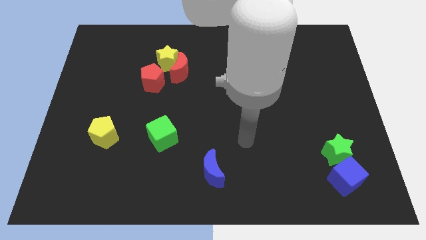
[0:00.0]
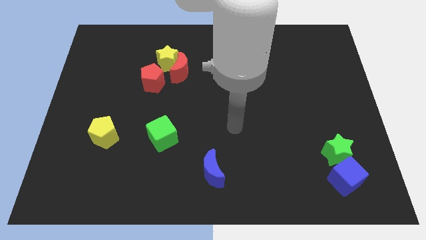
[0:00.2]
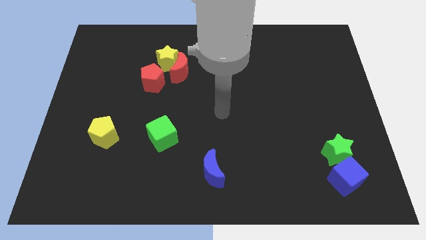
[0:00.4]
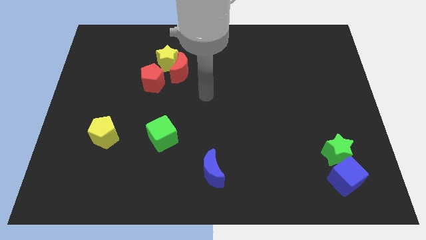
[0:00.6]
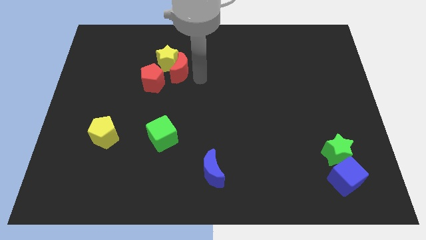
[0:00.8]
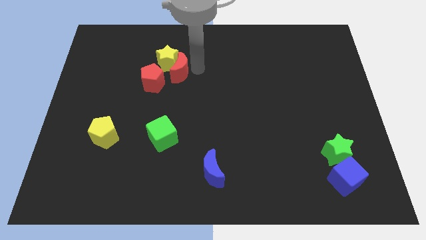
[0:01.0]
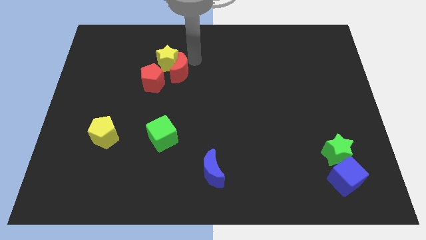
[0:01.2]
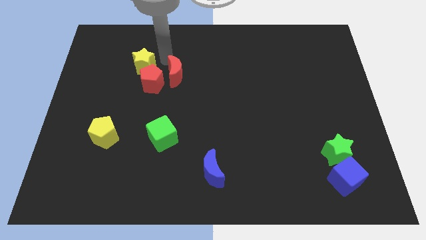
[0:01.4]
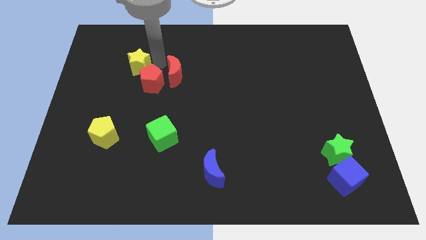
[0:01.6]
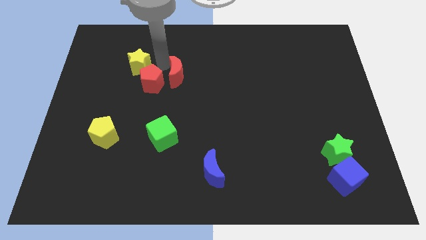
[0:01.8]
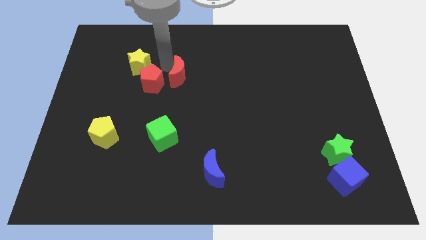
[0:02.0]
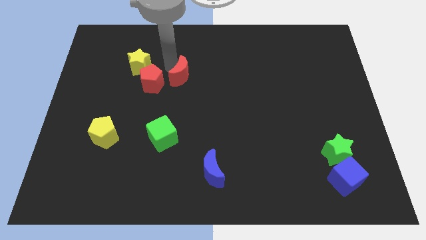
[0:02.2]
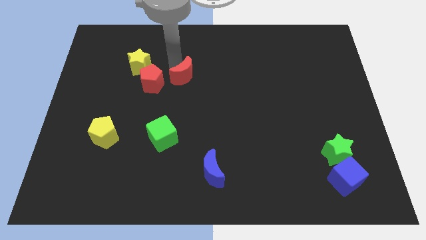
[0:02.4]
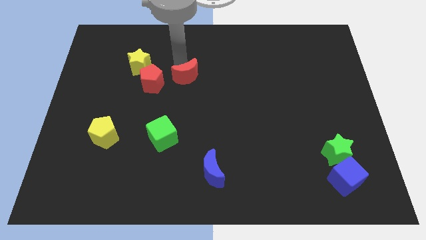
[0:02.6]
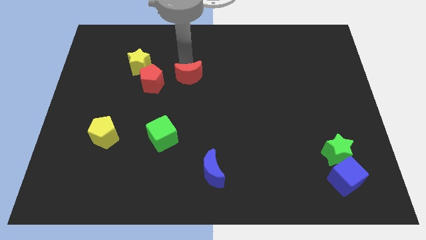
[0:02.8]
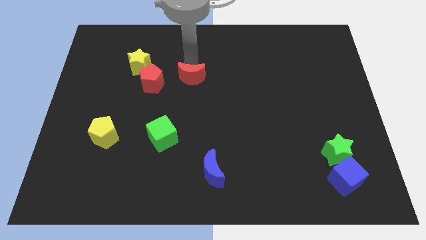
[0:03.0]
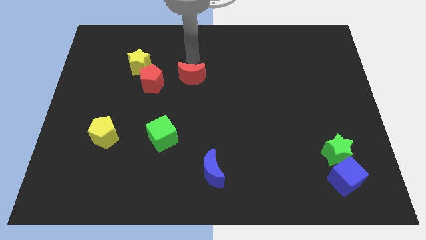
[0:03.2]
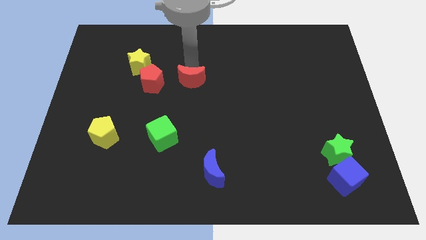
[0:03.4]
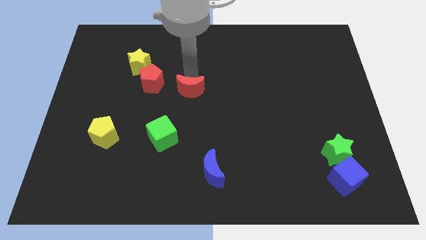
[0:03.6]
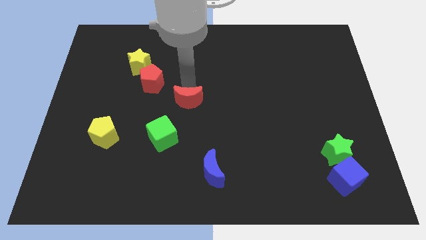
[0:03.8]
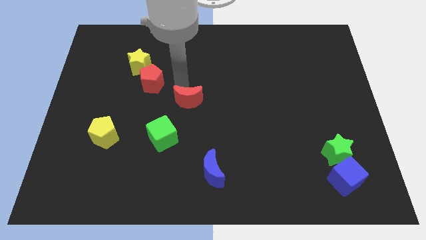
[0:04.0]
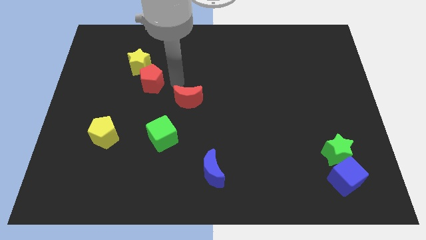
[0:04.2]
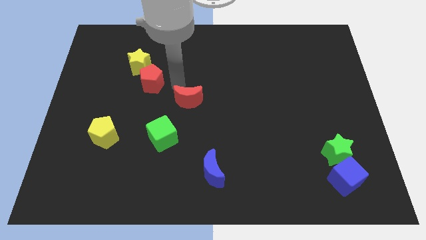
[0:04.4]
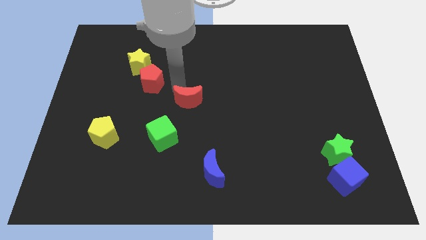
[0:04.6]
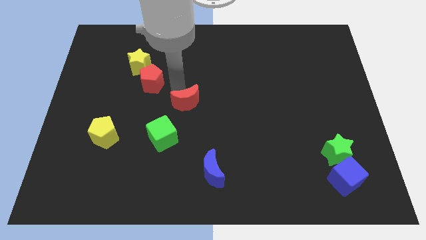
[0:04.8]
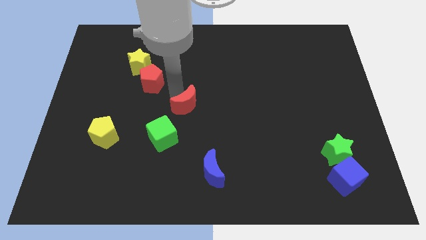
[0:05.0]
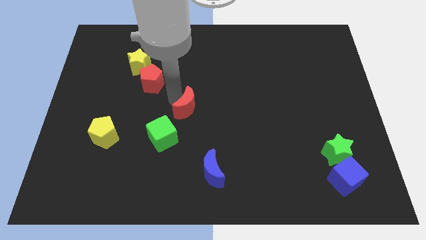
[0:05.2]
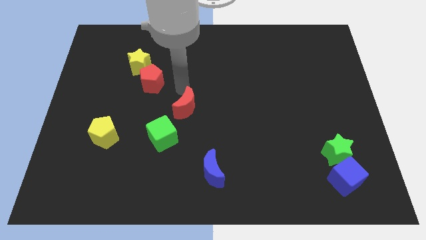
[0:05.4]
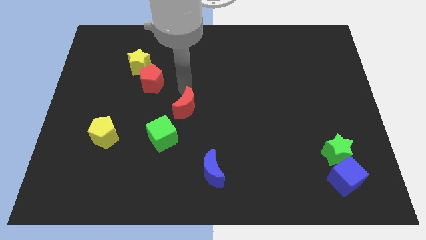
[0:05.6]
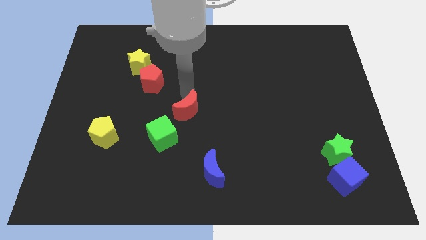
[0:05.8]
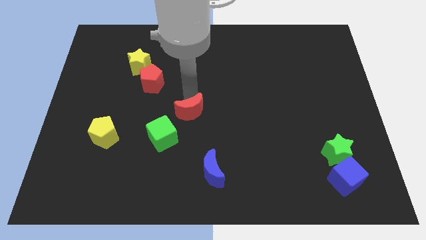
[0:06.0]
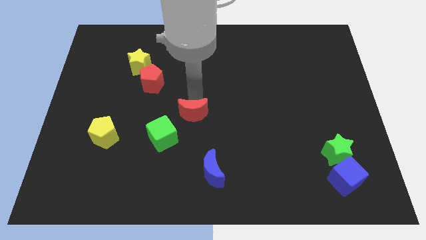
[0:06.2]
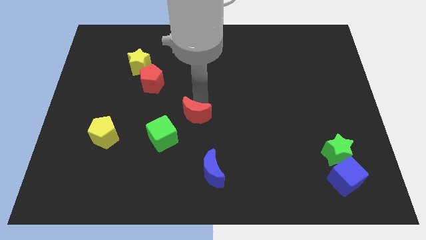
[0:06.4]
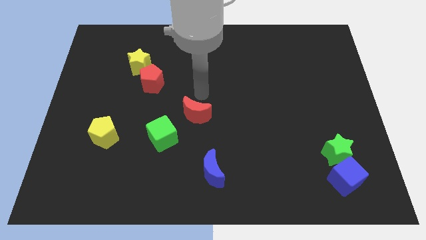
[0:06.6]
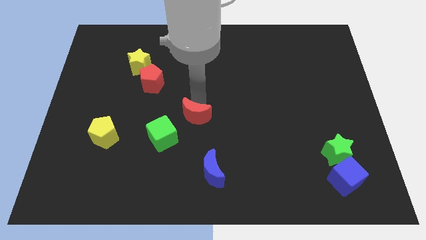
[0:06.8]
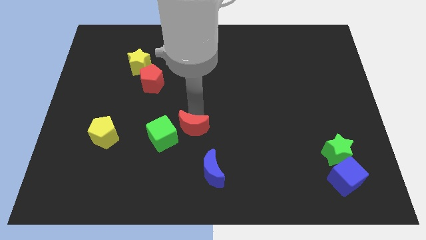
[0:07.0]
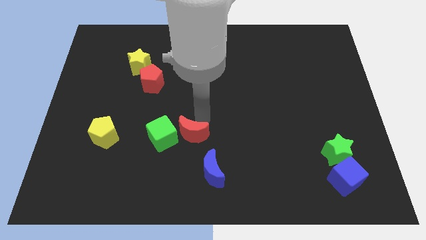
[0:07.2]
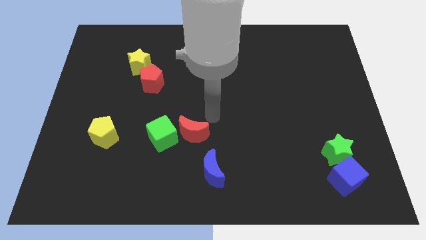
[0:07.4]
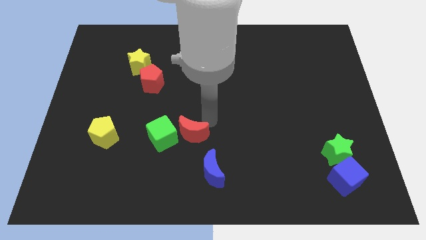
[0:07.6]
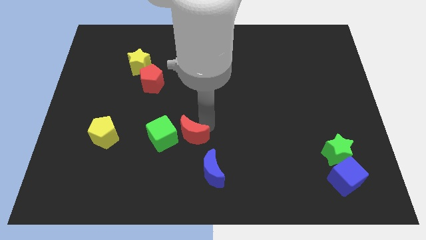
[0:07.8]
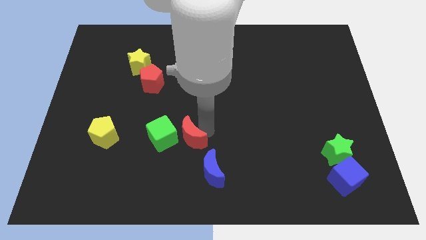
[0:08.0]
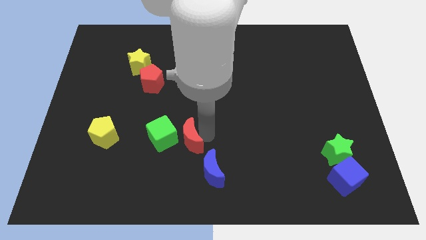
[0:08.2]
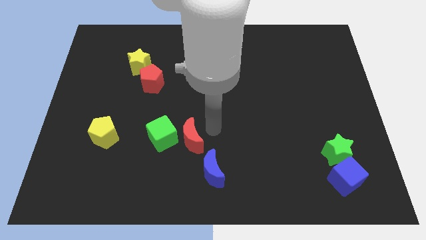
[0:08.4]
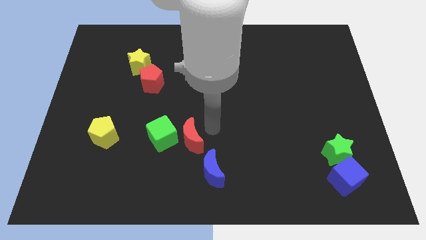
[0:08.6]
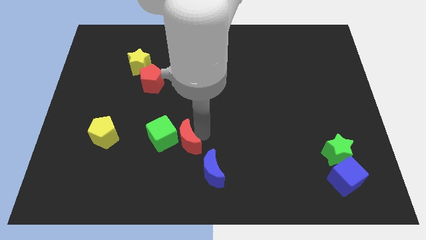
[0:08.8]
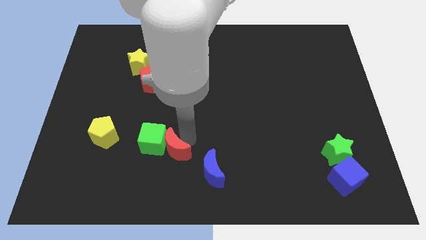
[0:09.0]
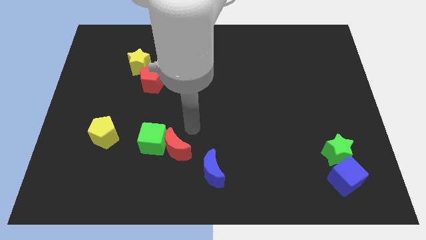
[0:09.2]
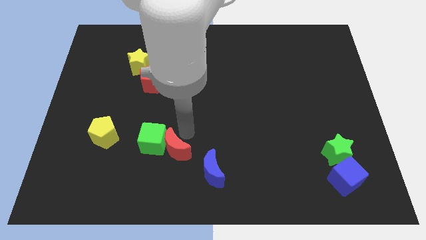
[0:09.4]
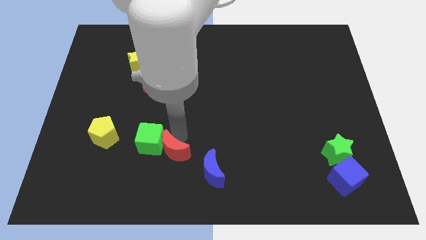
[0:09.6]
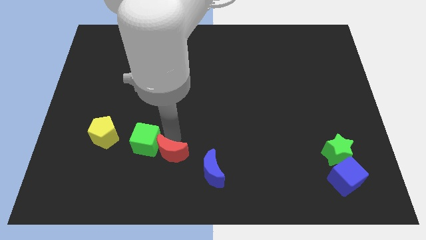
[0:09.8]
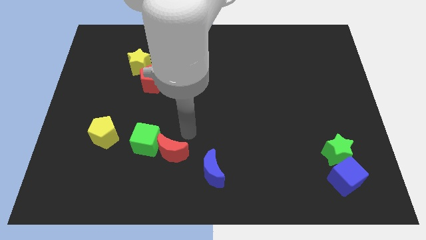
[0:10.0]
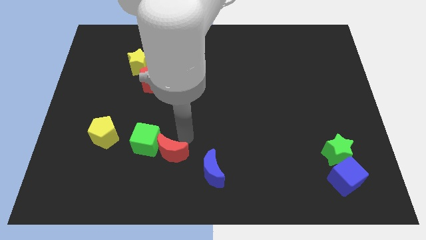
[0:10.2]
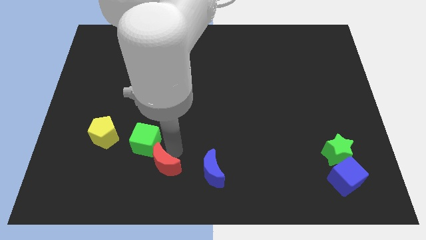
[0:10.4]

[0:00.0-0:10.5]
push the red moon below the green cube

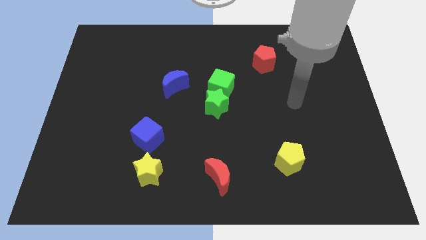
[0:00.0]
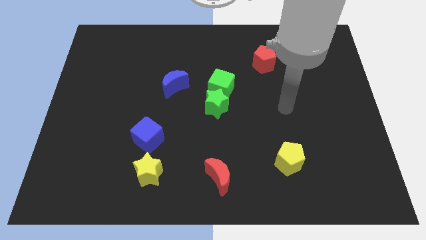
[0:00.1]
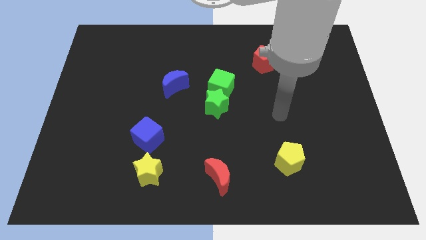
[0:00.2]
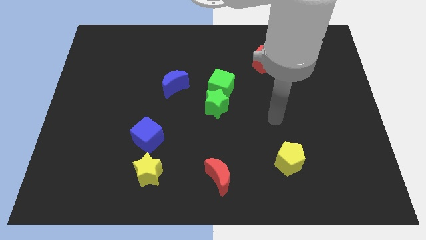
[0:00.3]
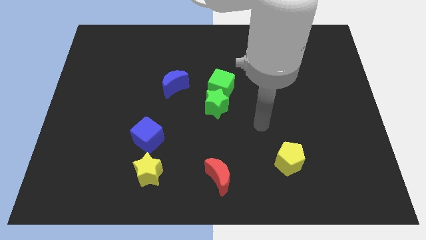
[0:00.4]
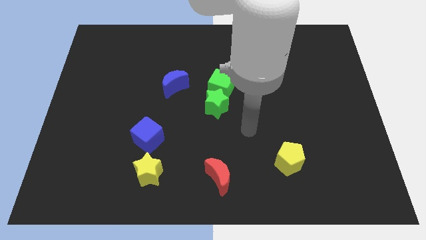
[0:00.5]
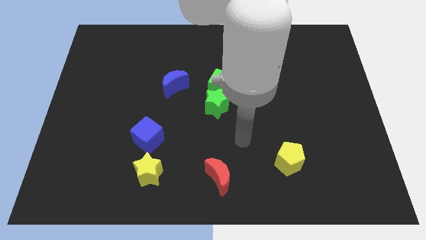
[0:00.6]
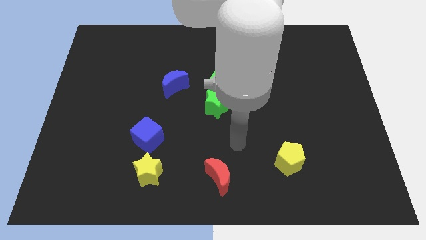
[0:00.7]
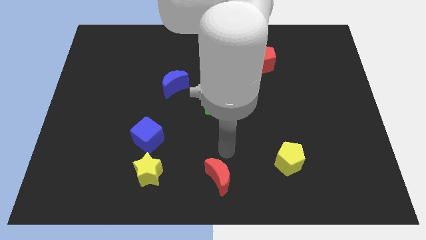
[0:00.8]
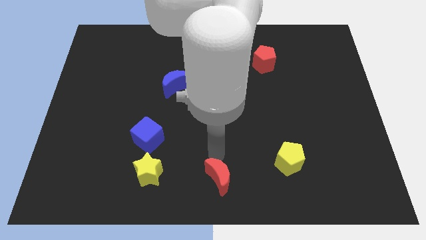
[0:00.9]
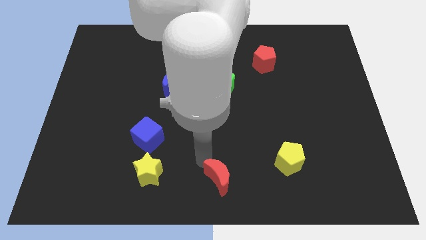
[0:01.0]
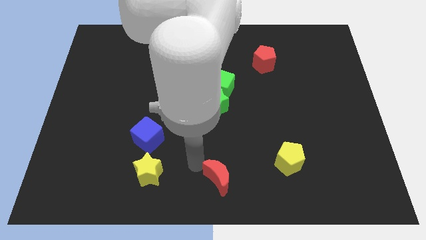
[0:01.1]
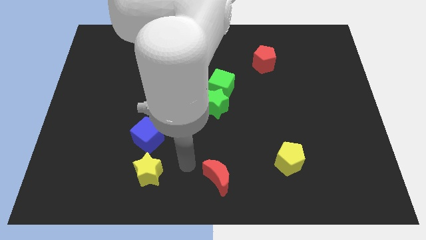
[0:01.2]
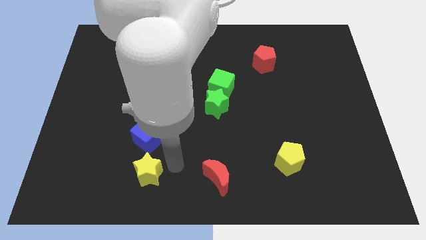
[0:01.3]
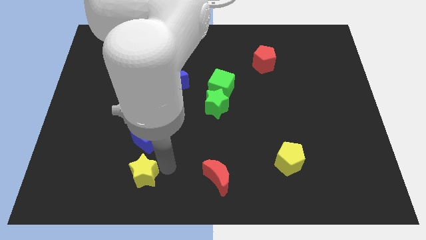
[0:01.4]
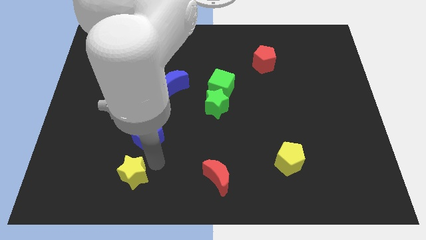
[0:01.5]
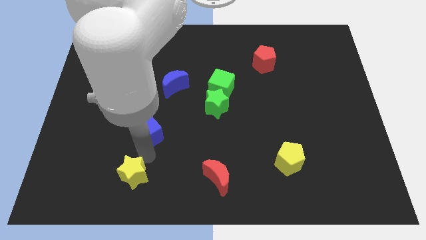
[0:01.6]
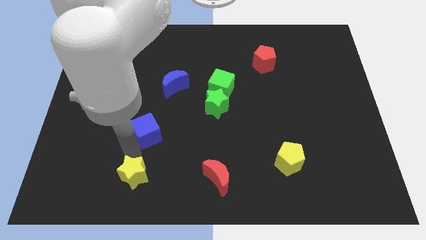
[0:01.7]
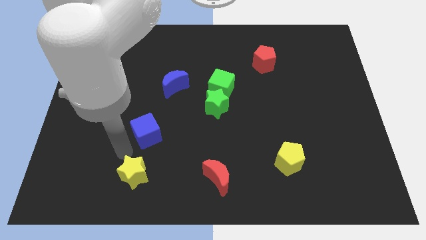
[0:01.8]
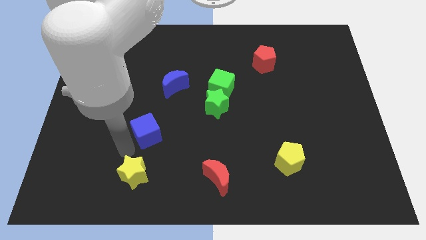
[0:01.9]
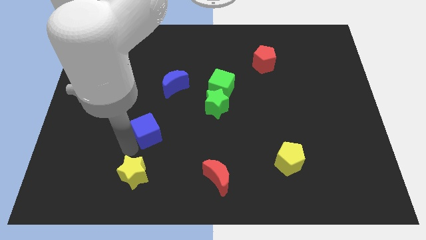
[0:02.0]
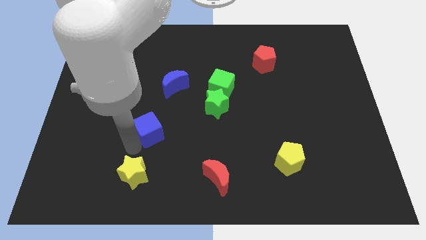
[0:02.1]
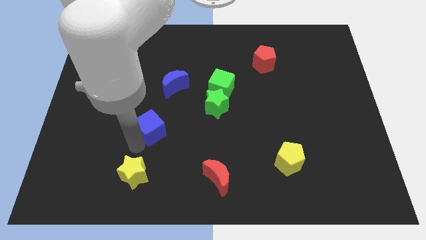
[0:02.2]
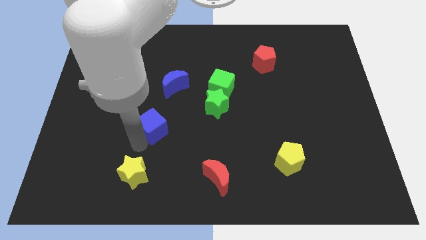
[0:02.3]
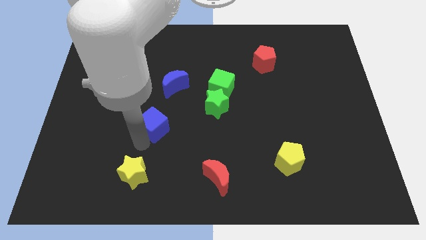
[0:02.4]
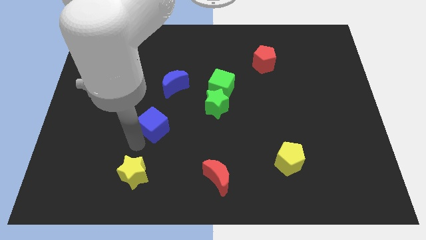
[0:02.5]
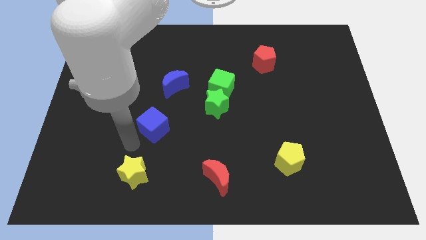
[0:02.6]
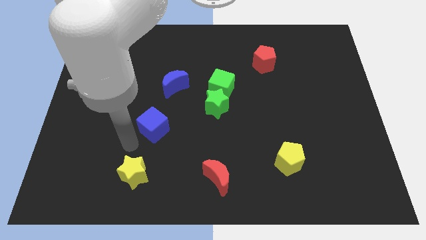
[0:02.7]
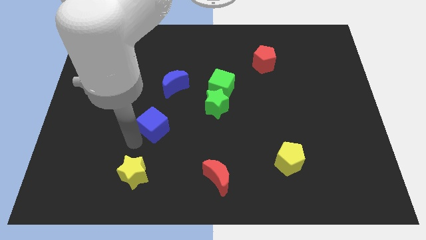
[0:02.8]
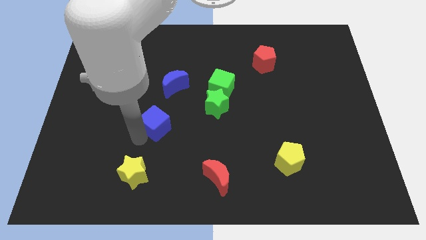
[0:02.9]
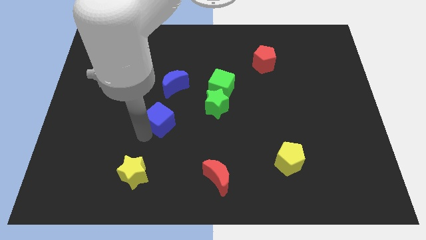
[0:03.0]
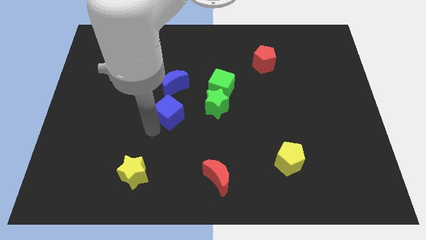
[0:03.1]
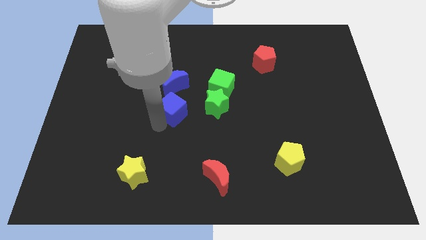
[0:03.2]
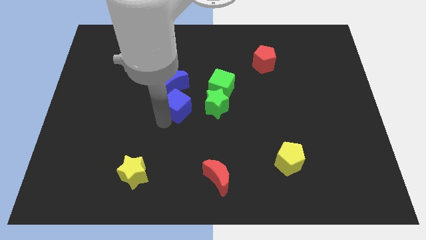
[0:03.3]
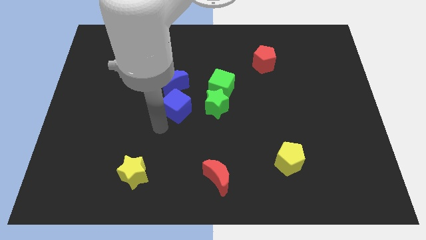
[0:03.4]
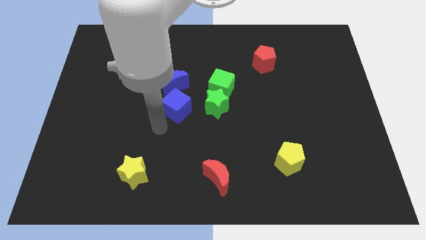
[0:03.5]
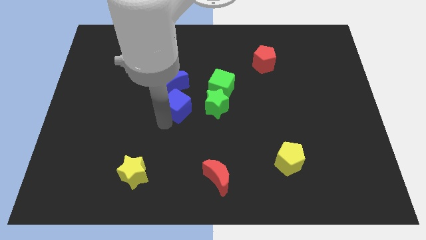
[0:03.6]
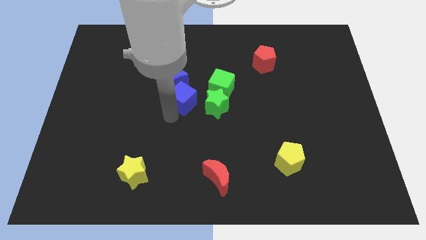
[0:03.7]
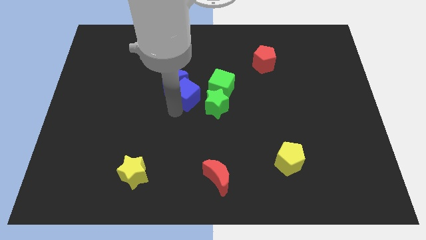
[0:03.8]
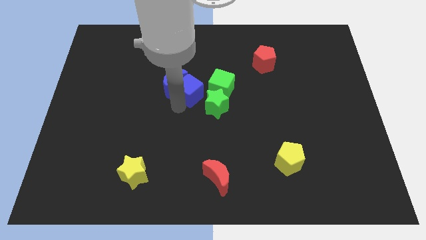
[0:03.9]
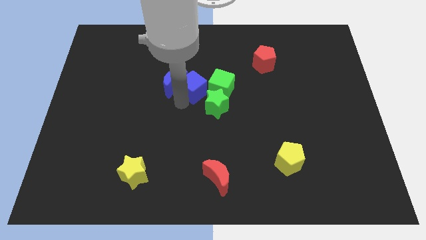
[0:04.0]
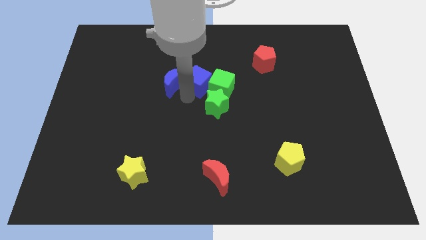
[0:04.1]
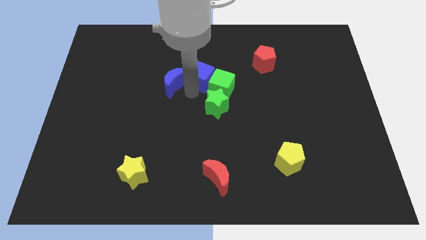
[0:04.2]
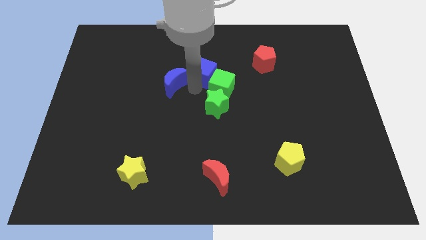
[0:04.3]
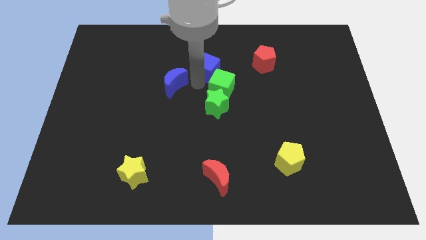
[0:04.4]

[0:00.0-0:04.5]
put the blue cube left of the red pentagon
